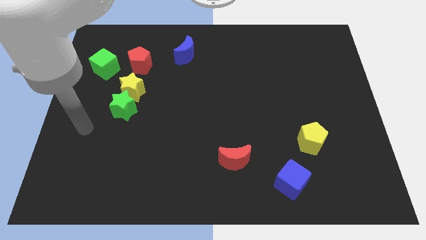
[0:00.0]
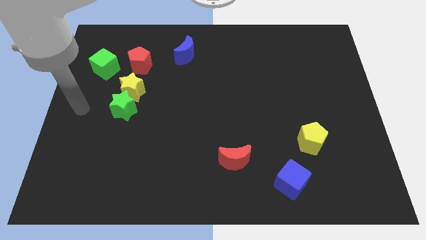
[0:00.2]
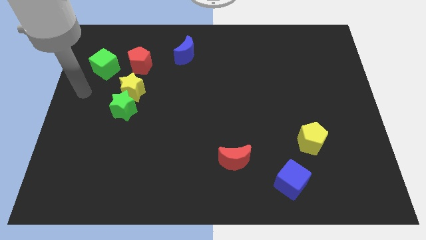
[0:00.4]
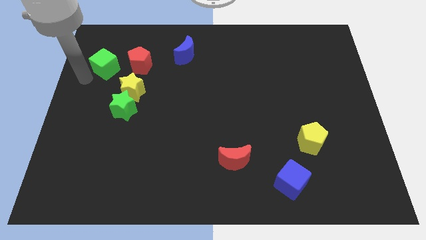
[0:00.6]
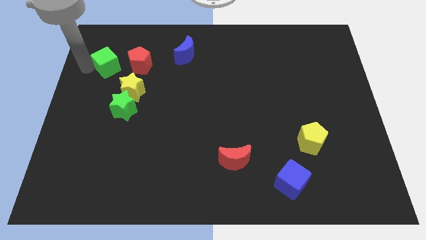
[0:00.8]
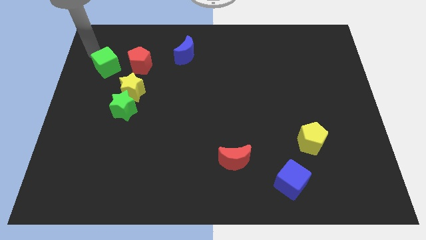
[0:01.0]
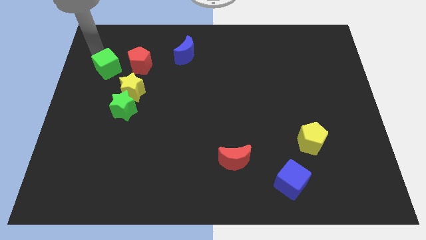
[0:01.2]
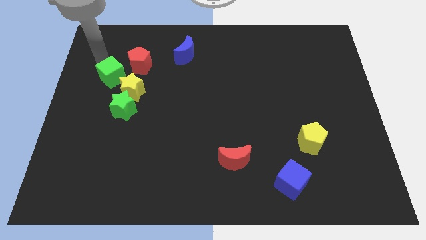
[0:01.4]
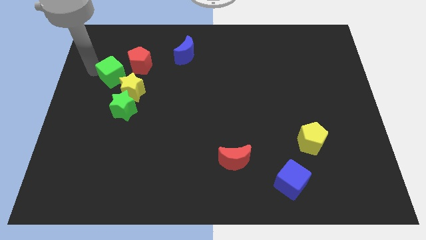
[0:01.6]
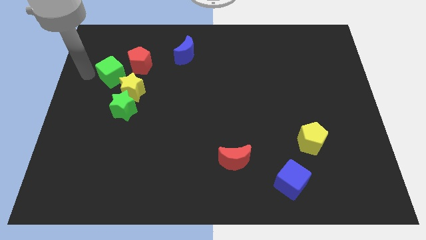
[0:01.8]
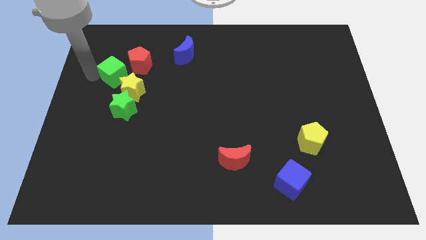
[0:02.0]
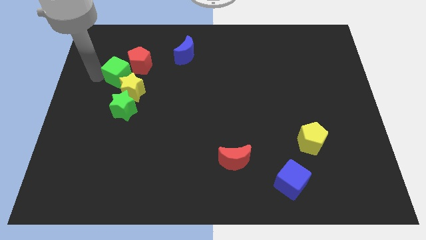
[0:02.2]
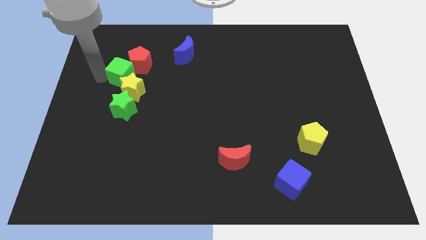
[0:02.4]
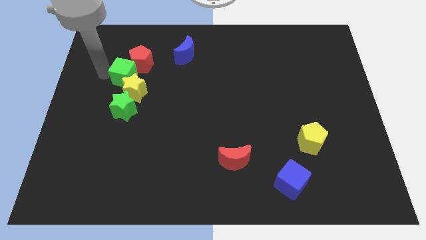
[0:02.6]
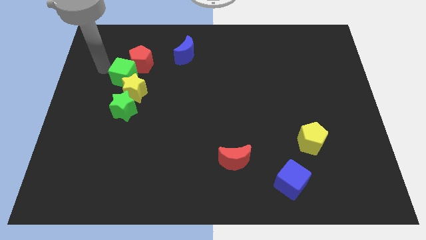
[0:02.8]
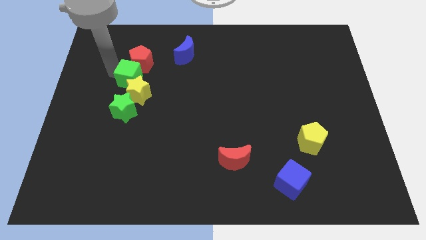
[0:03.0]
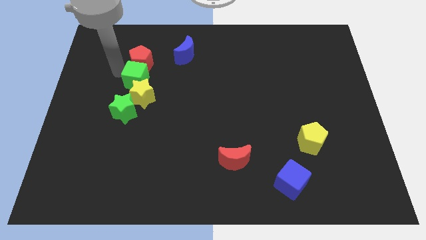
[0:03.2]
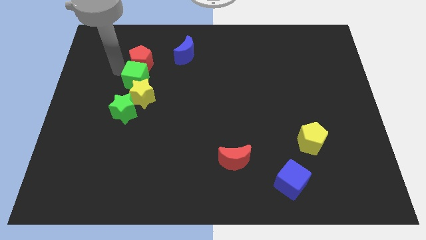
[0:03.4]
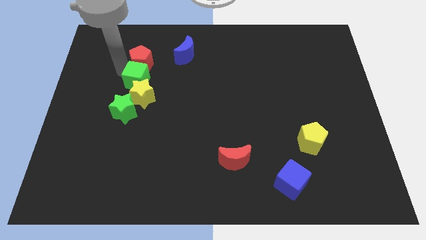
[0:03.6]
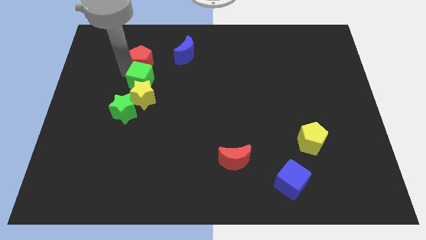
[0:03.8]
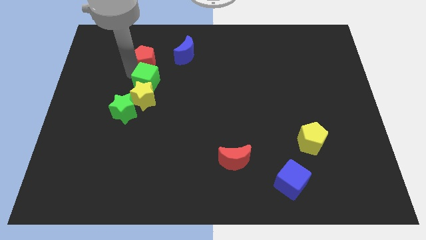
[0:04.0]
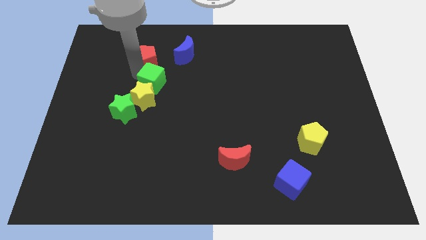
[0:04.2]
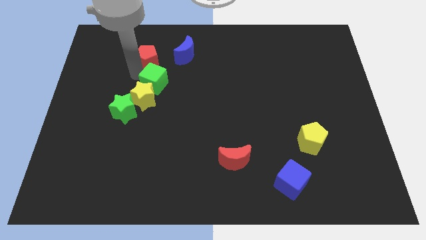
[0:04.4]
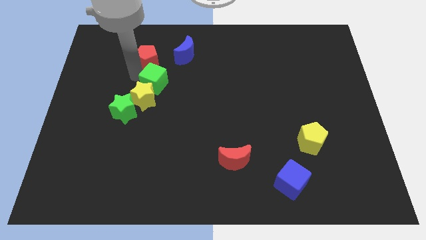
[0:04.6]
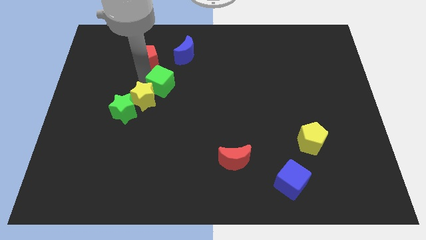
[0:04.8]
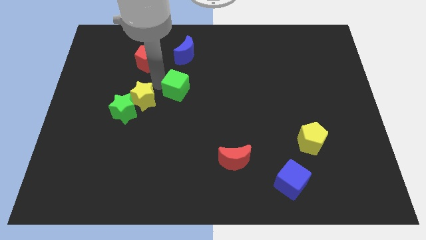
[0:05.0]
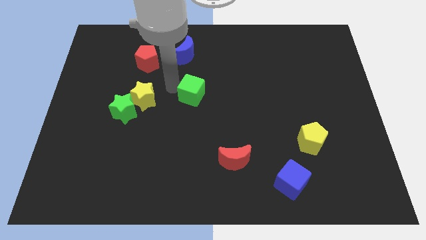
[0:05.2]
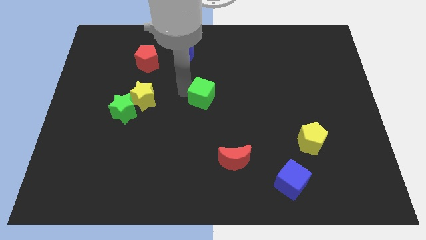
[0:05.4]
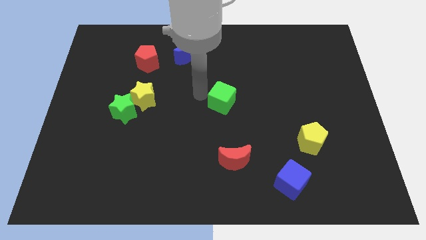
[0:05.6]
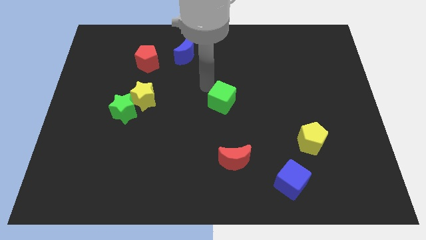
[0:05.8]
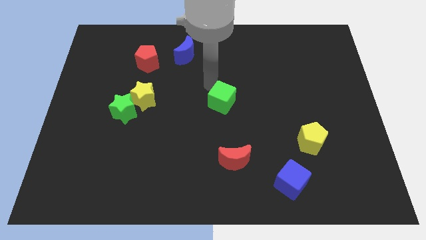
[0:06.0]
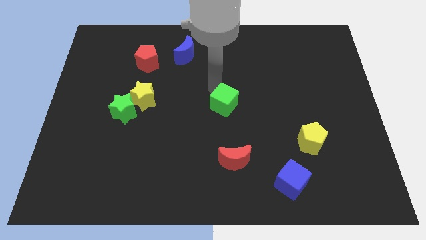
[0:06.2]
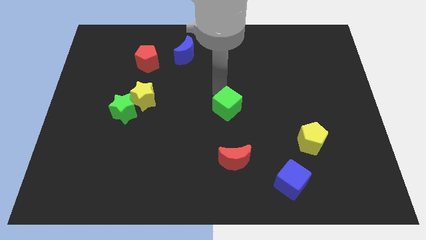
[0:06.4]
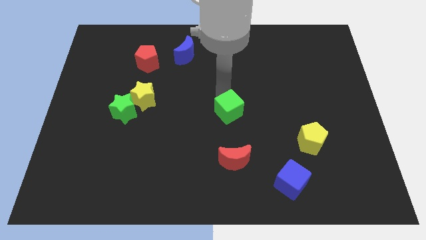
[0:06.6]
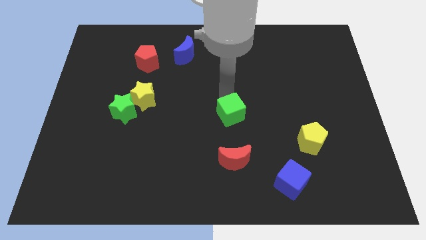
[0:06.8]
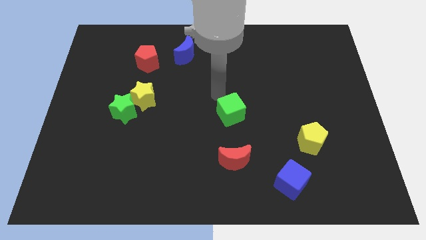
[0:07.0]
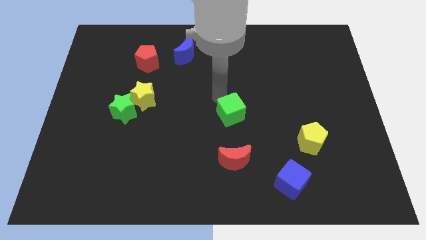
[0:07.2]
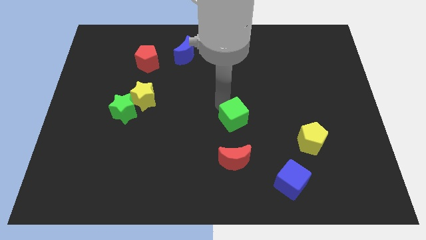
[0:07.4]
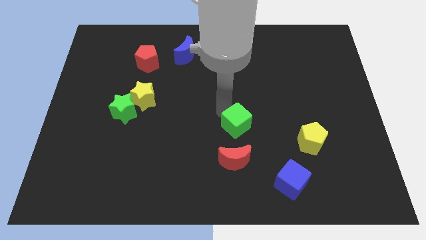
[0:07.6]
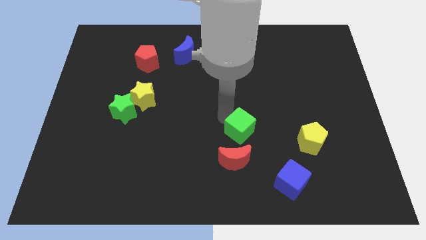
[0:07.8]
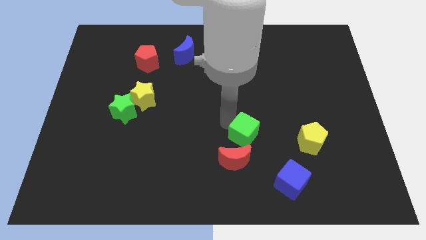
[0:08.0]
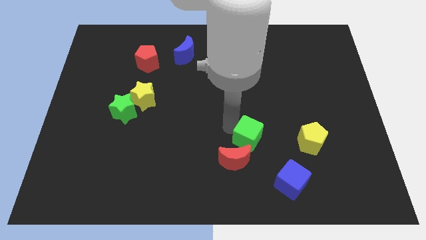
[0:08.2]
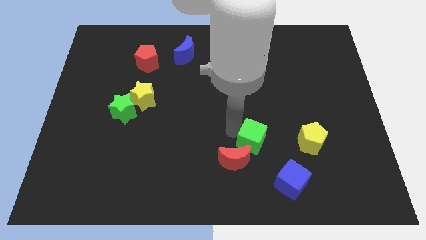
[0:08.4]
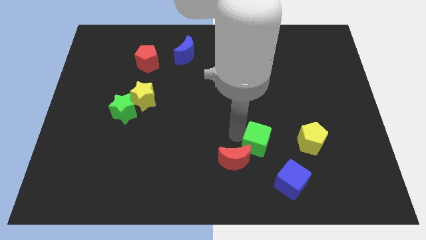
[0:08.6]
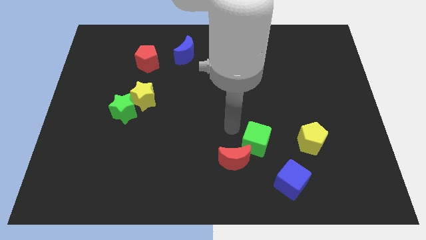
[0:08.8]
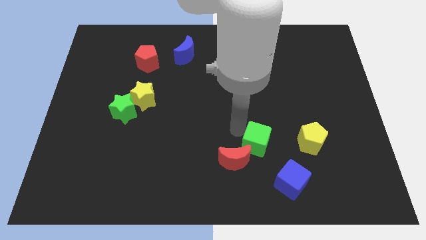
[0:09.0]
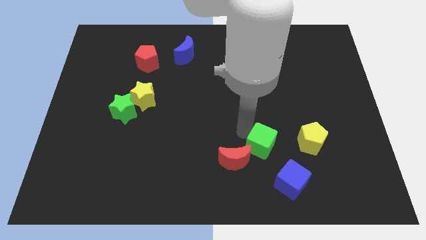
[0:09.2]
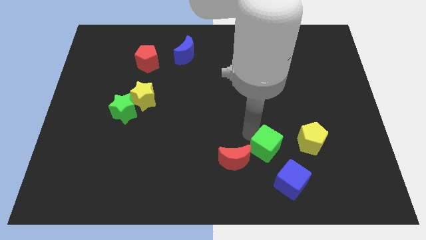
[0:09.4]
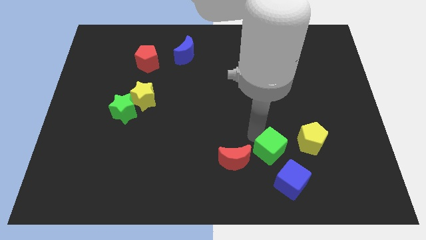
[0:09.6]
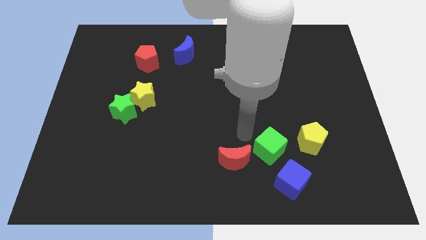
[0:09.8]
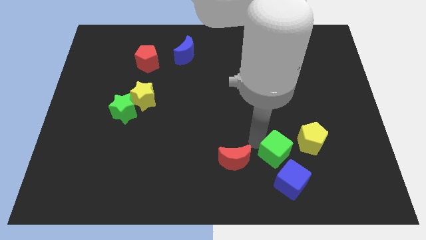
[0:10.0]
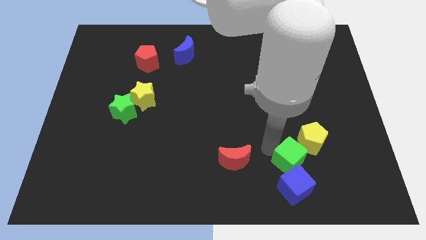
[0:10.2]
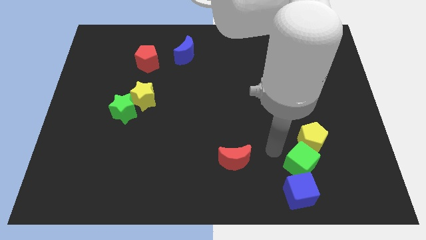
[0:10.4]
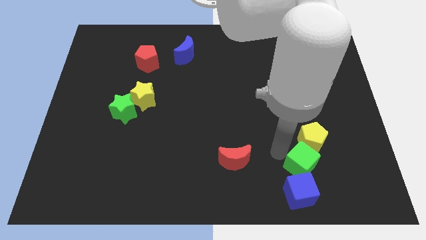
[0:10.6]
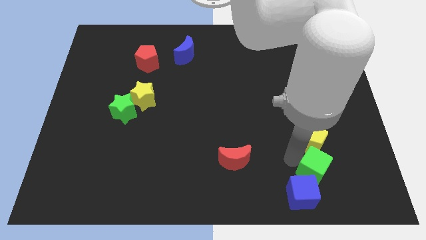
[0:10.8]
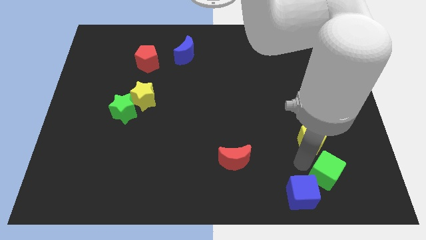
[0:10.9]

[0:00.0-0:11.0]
slide the green cube to the right of the blue cube

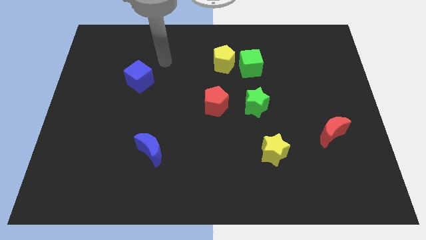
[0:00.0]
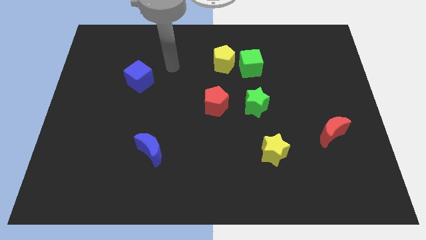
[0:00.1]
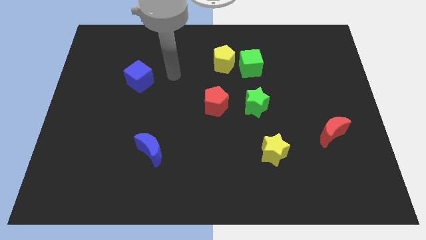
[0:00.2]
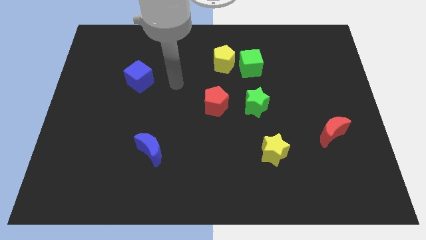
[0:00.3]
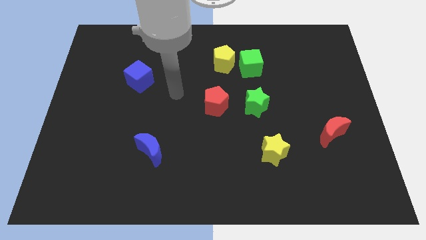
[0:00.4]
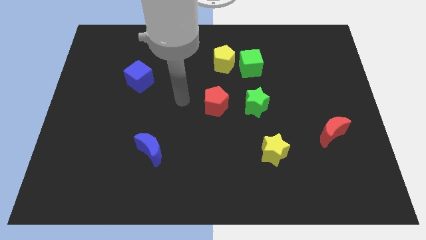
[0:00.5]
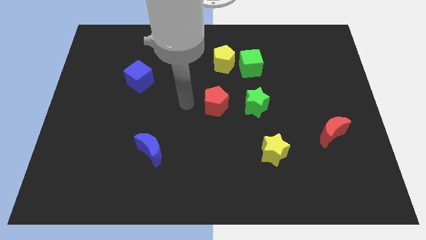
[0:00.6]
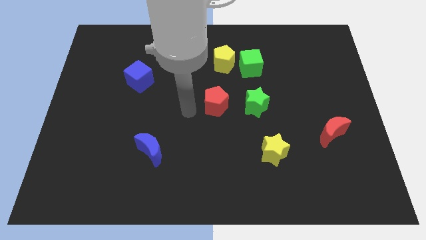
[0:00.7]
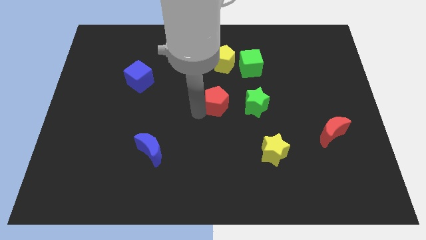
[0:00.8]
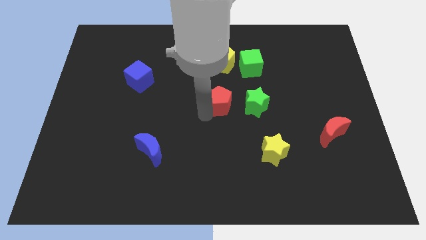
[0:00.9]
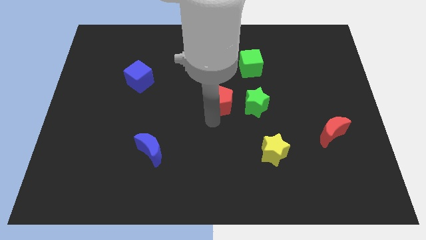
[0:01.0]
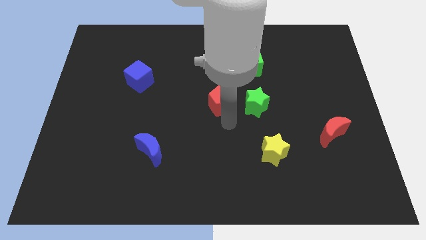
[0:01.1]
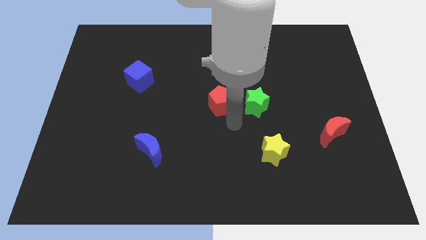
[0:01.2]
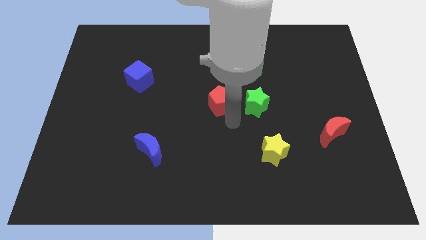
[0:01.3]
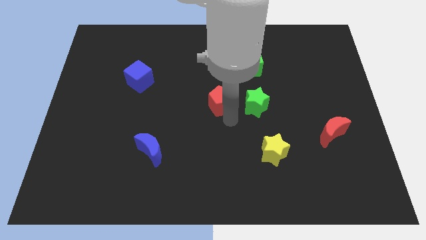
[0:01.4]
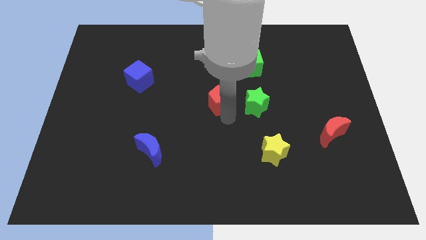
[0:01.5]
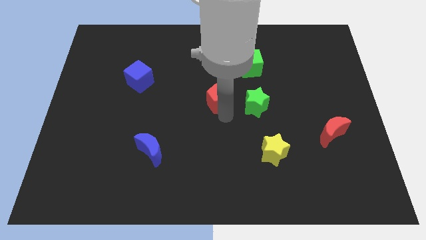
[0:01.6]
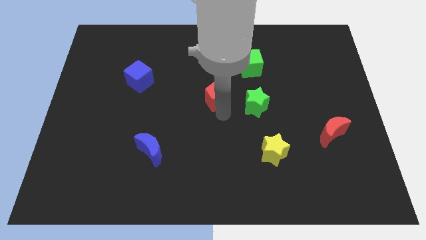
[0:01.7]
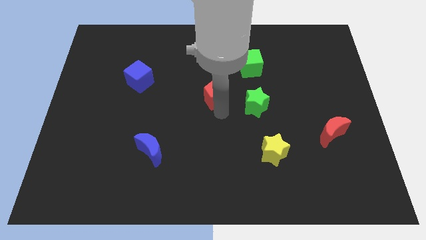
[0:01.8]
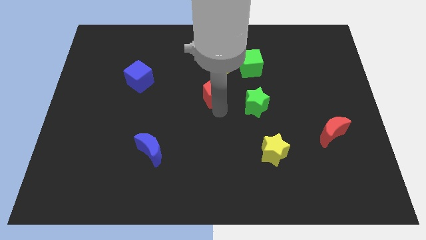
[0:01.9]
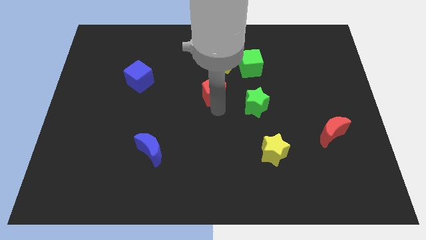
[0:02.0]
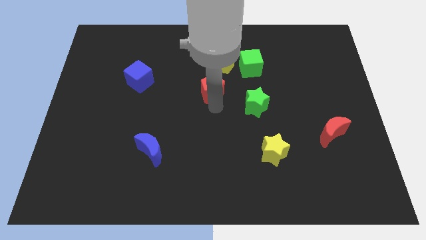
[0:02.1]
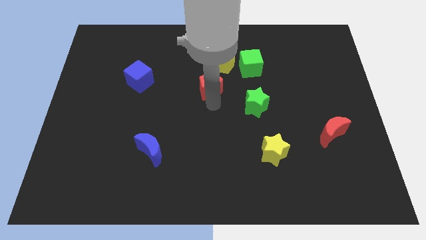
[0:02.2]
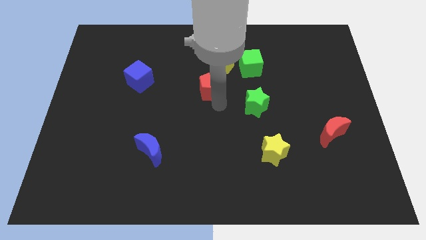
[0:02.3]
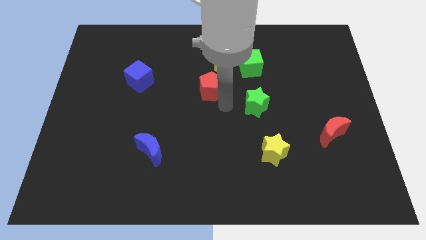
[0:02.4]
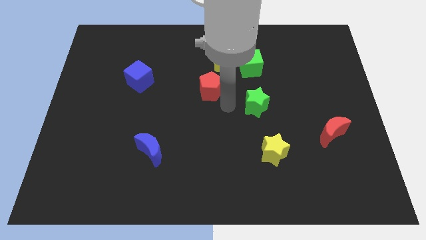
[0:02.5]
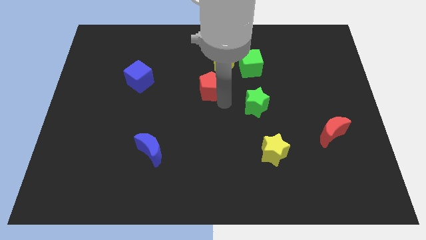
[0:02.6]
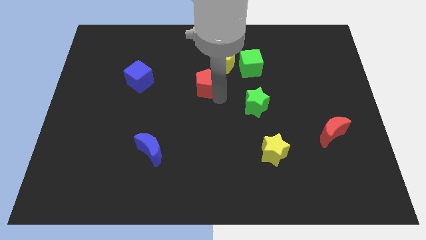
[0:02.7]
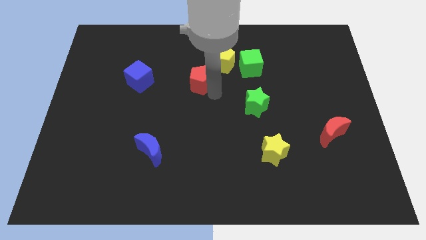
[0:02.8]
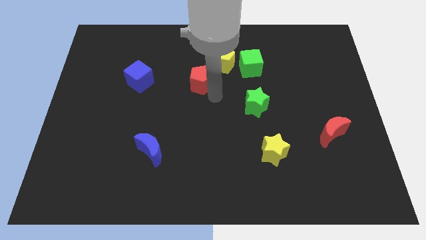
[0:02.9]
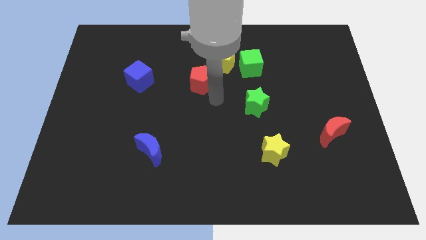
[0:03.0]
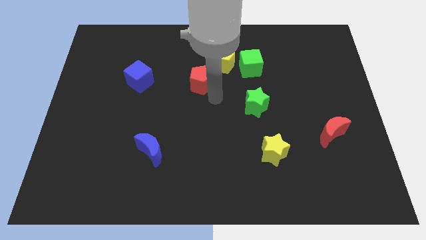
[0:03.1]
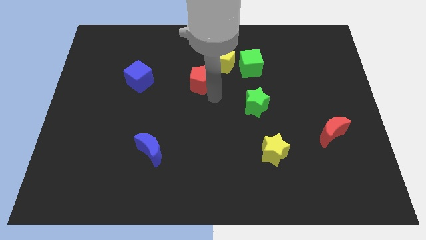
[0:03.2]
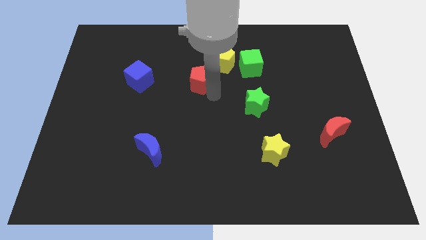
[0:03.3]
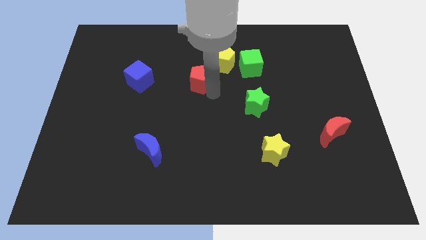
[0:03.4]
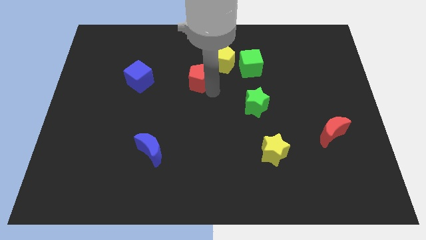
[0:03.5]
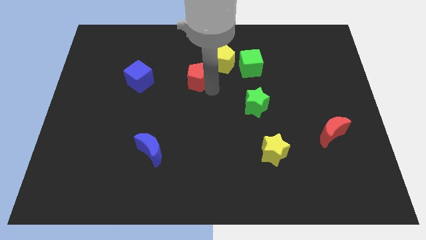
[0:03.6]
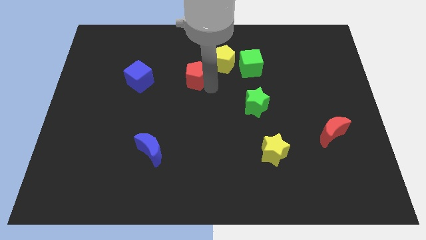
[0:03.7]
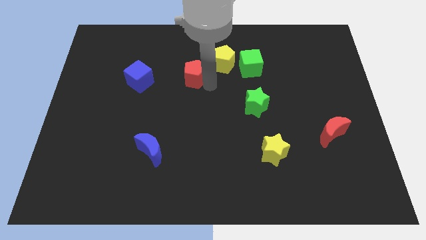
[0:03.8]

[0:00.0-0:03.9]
move the red pentagon just left of the yellow pentagon
